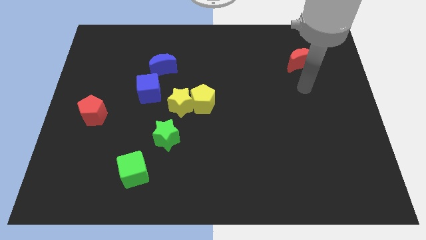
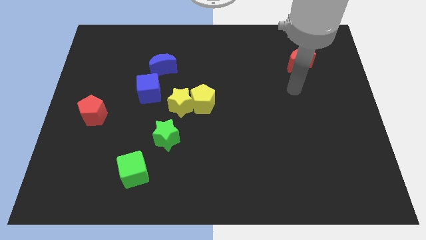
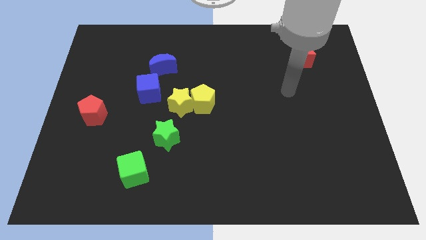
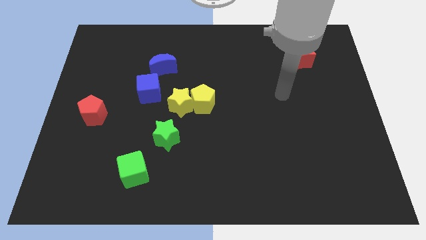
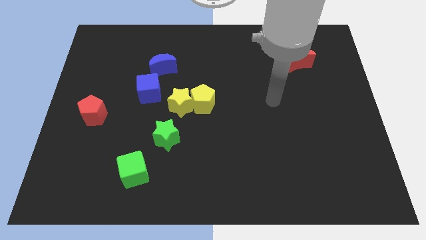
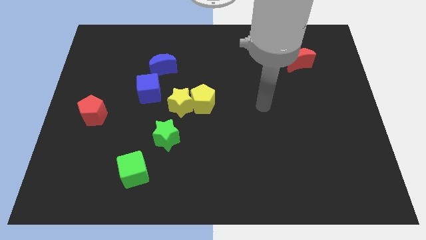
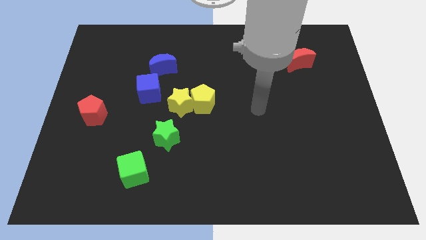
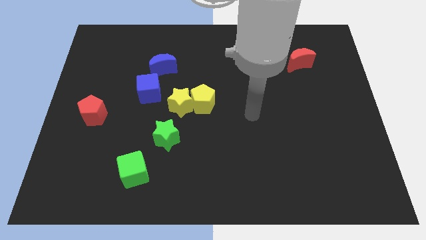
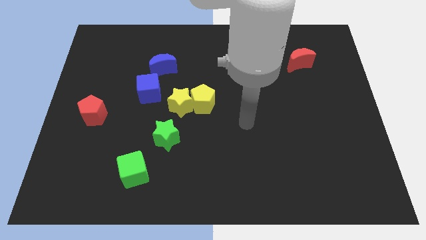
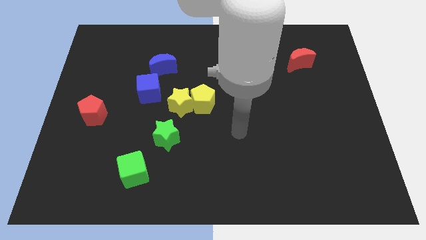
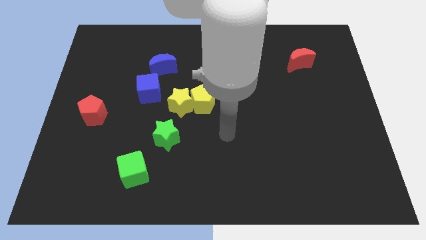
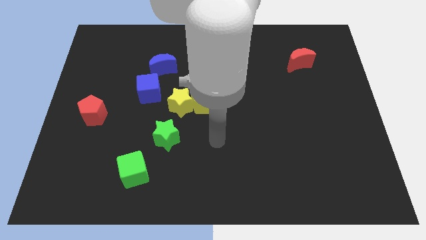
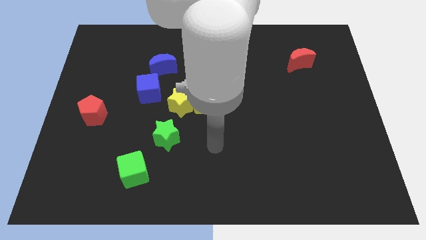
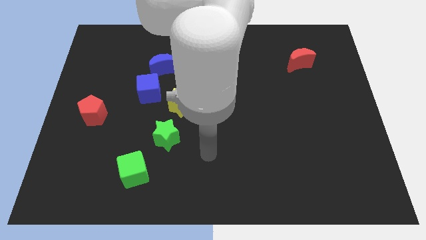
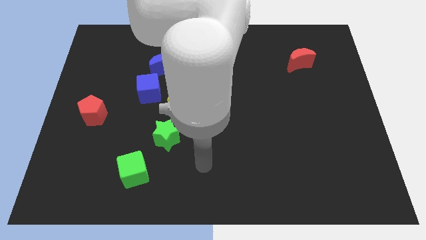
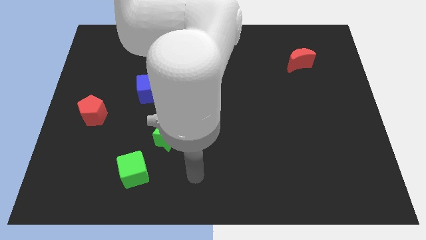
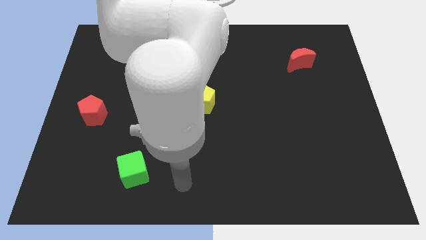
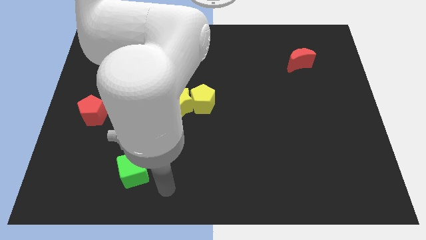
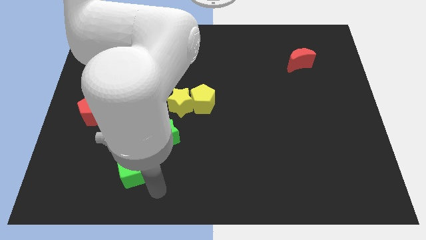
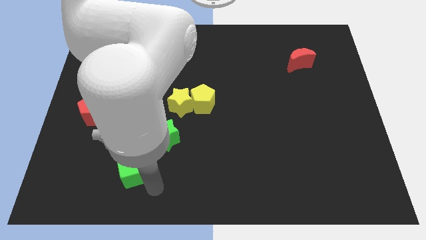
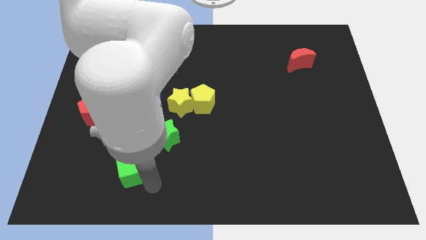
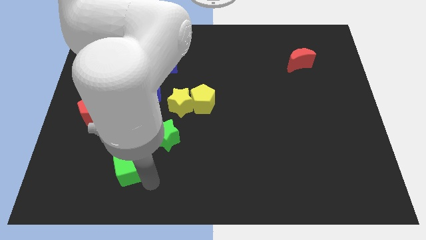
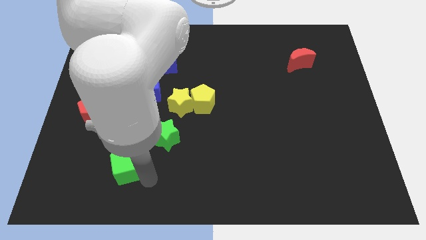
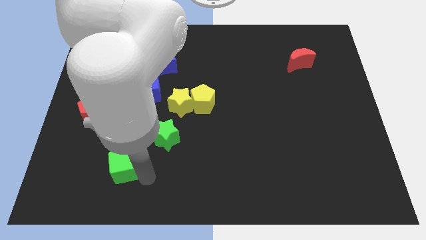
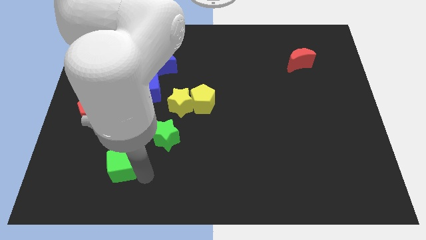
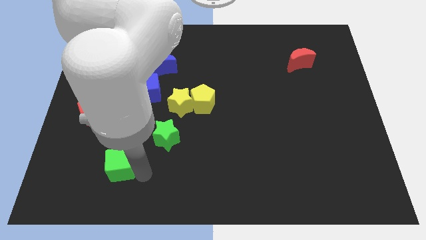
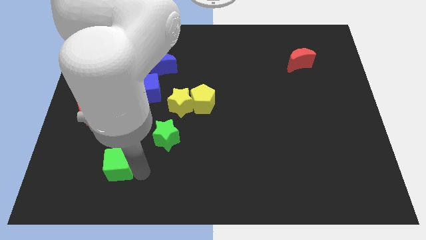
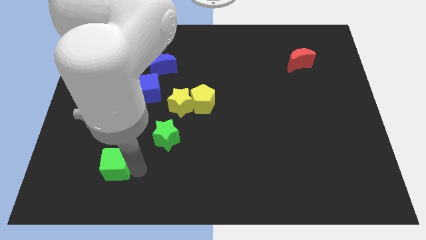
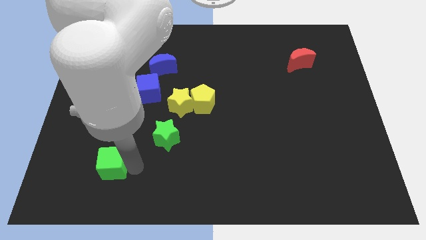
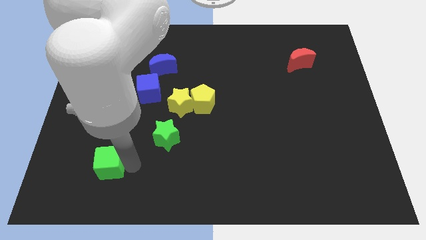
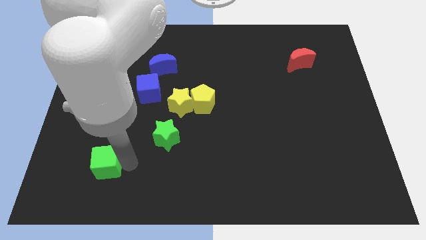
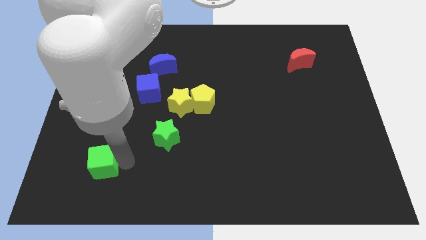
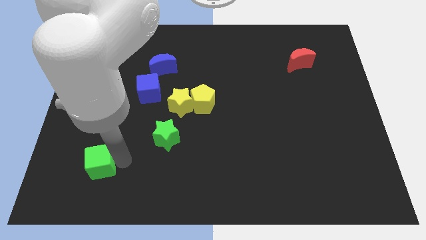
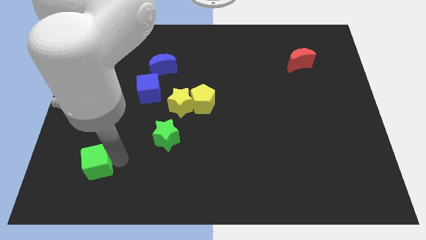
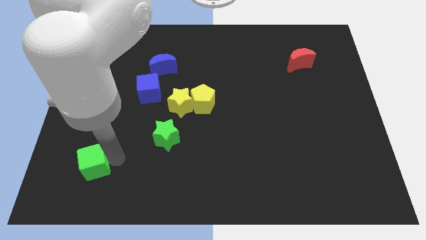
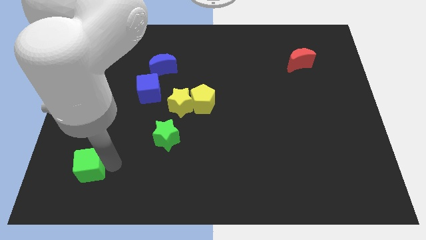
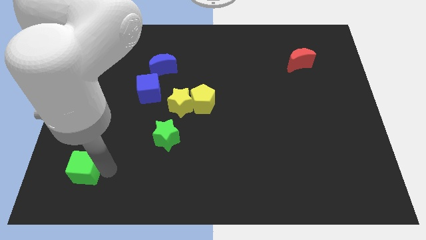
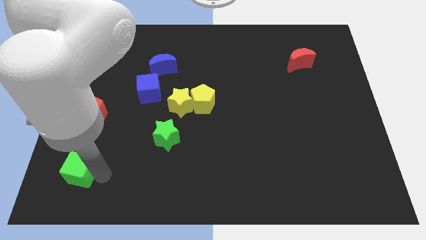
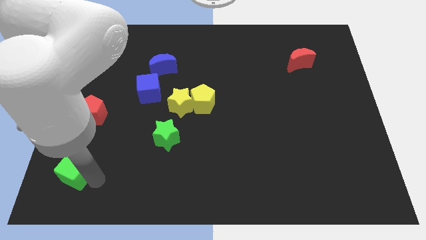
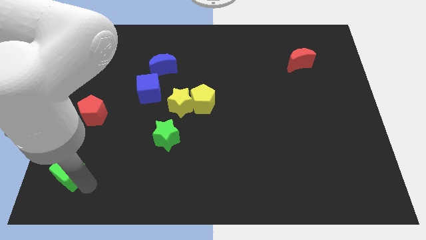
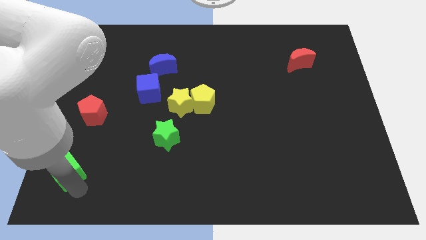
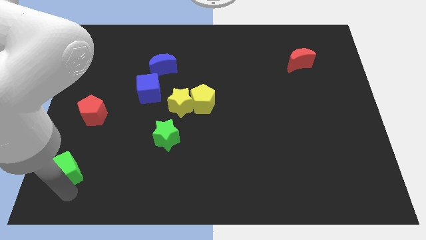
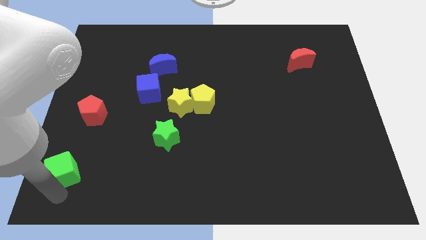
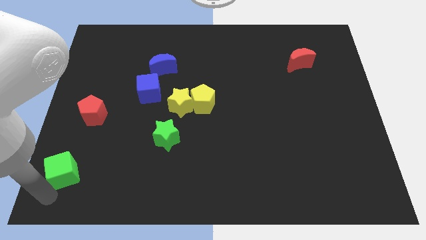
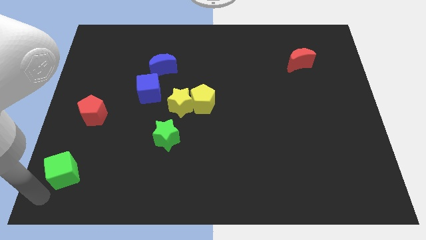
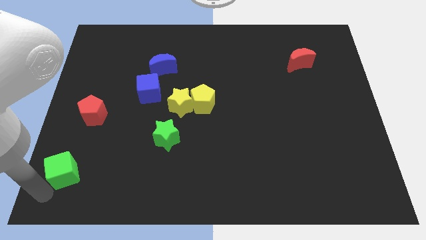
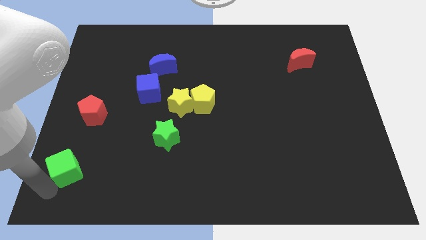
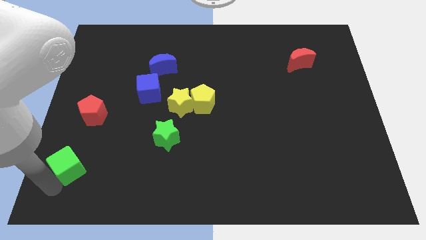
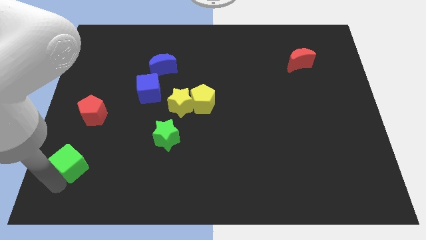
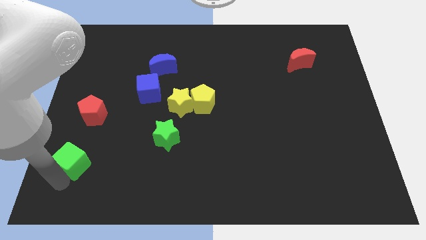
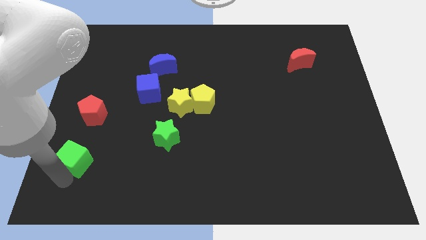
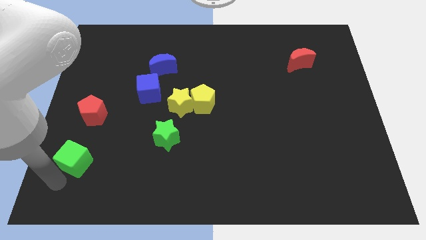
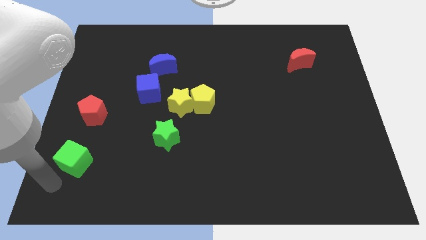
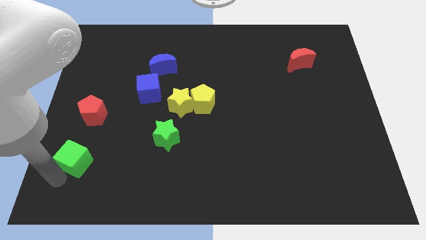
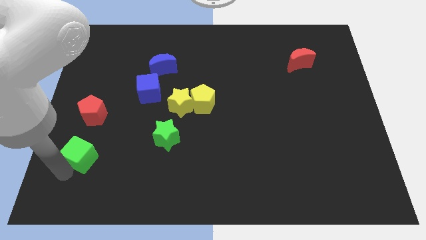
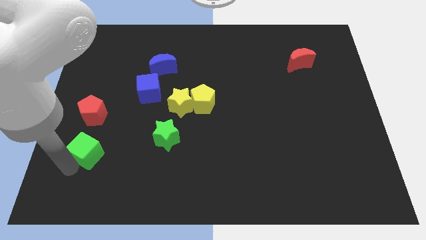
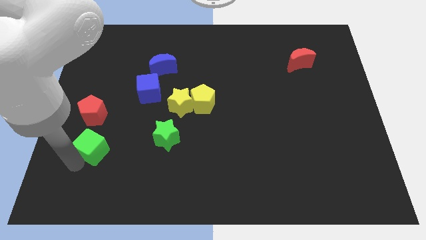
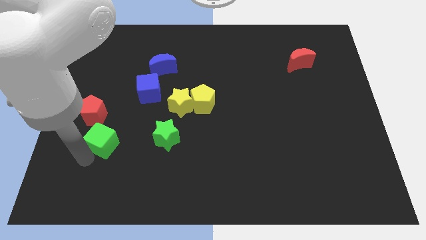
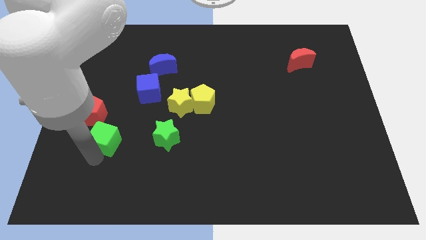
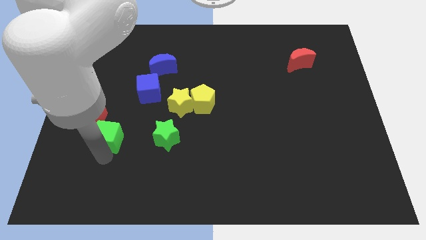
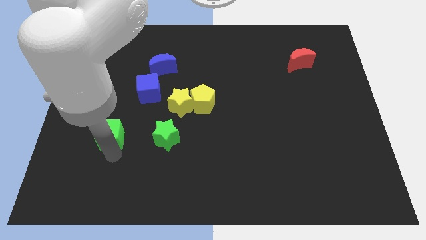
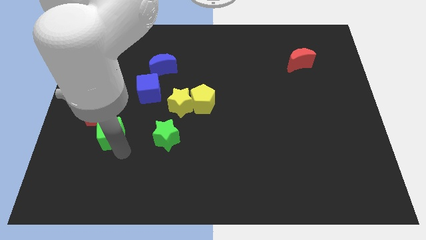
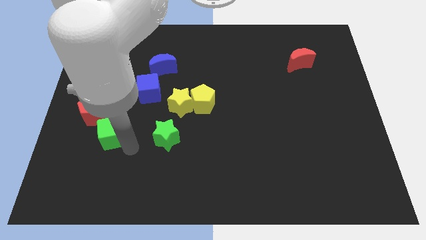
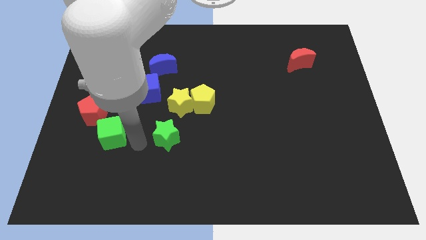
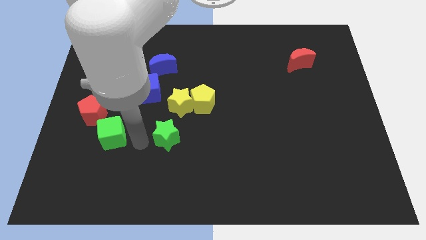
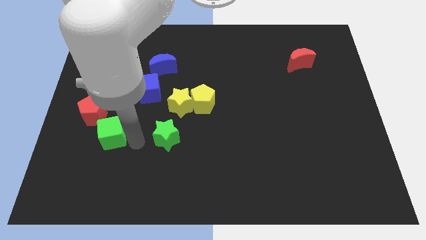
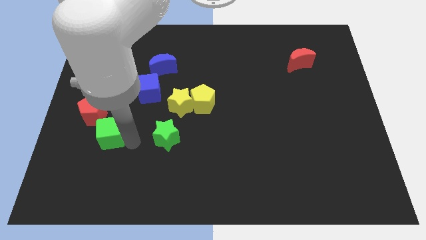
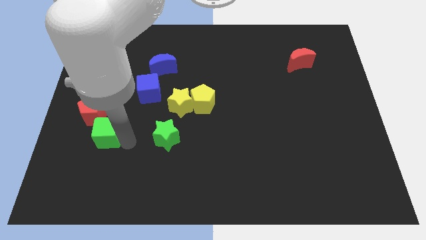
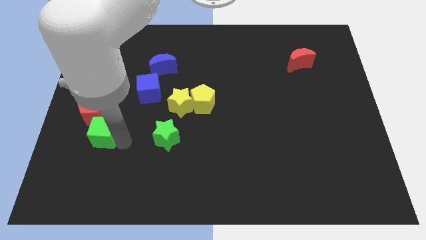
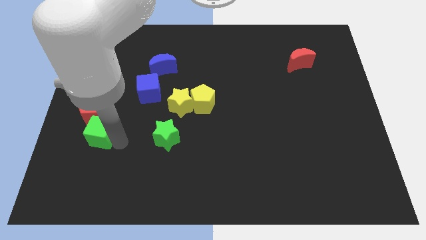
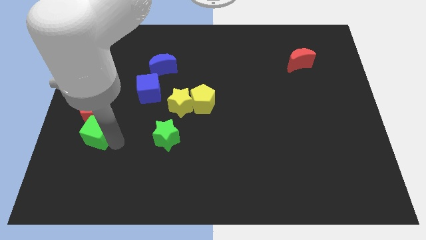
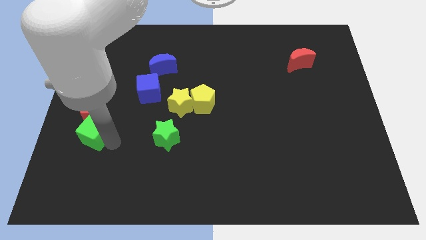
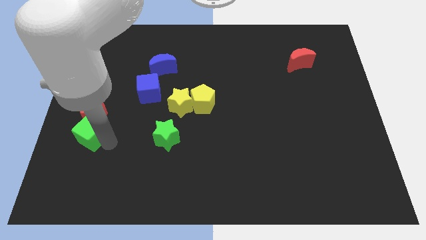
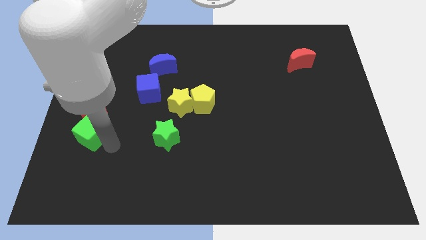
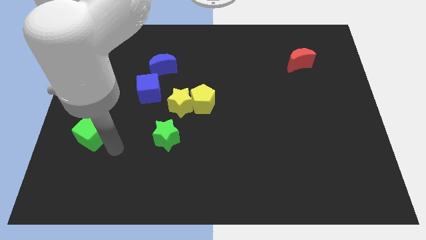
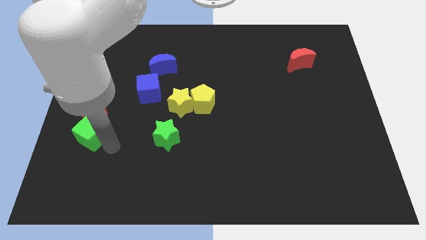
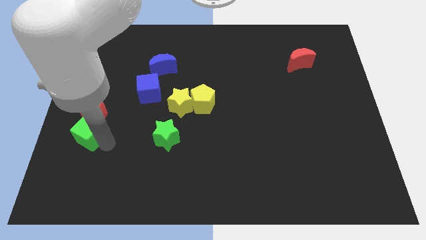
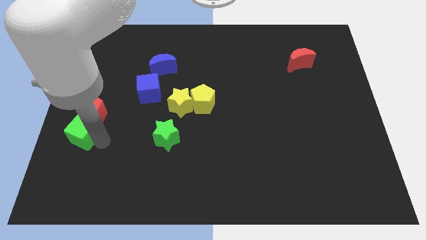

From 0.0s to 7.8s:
move the green cube to the left side
